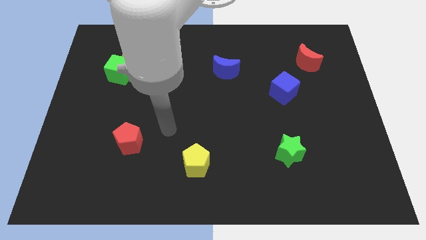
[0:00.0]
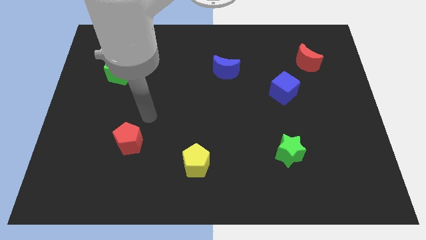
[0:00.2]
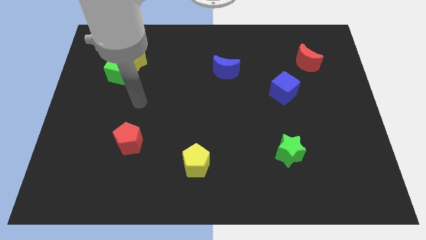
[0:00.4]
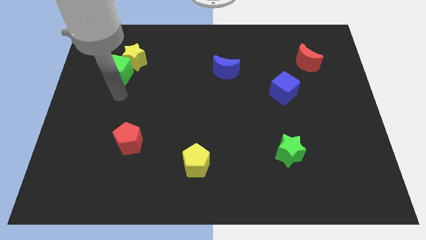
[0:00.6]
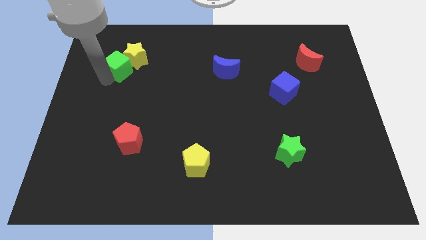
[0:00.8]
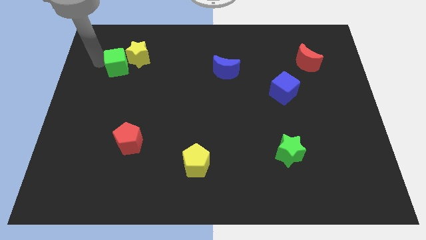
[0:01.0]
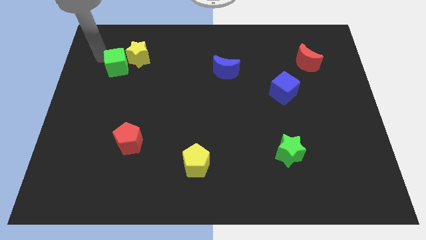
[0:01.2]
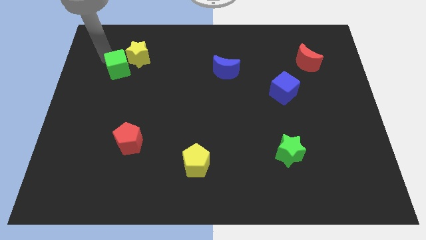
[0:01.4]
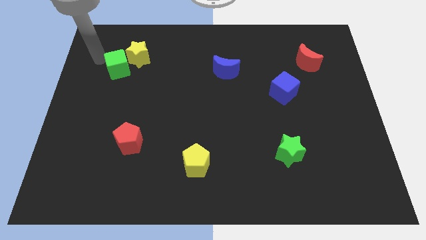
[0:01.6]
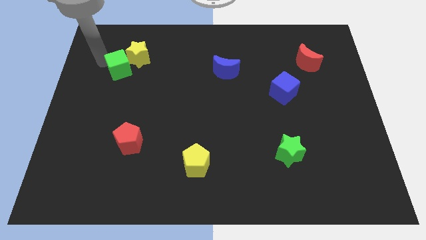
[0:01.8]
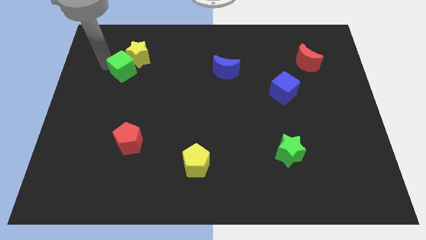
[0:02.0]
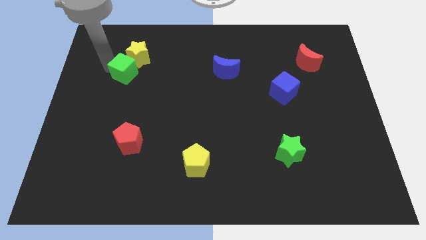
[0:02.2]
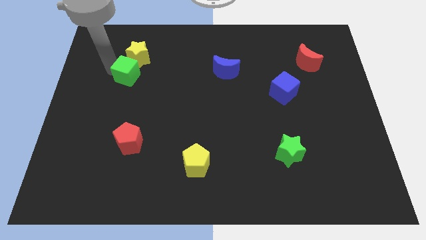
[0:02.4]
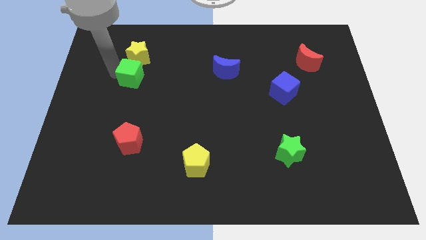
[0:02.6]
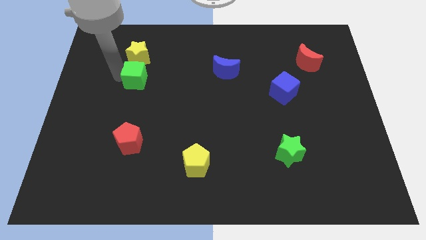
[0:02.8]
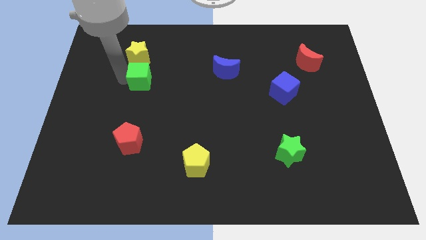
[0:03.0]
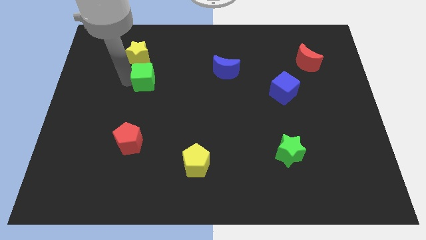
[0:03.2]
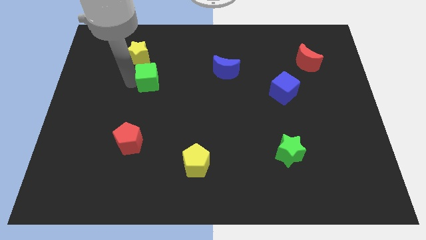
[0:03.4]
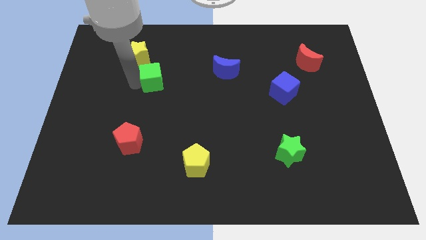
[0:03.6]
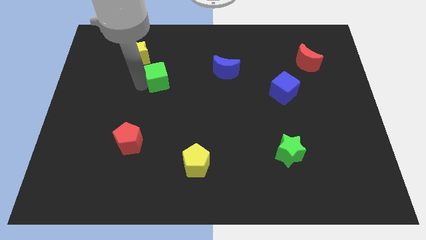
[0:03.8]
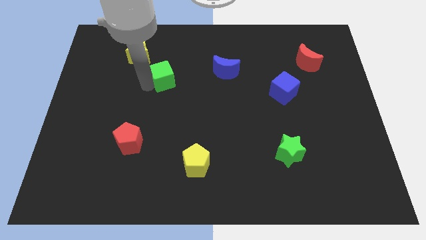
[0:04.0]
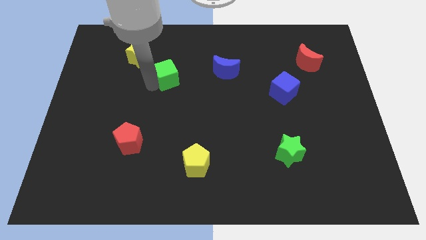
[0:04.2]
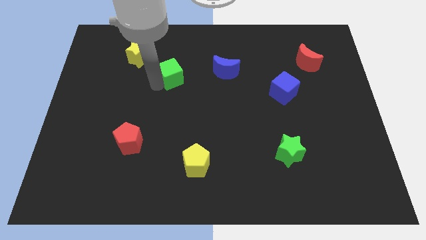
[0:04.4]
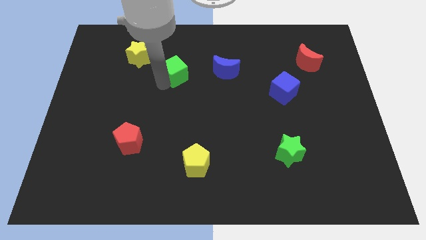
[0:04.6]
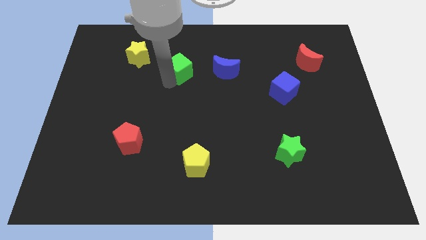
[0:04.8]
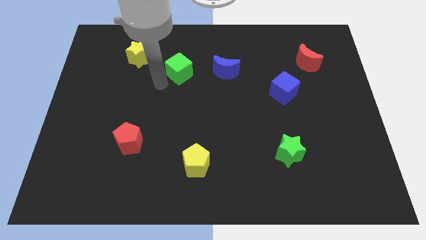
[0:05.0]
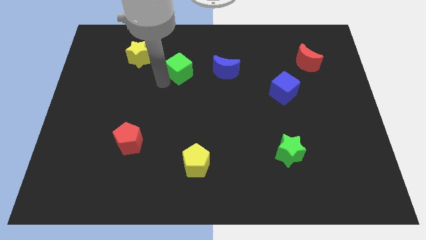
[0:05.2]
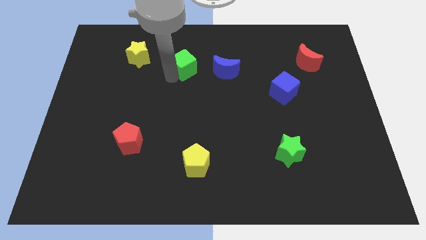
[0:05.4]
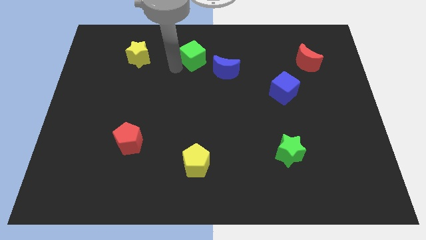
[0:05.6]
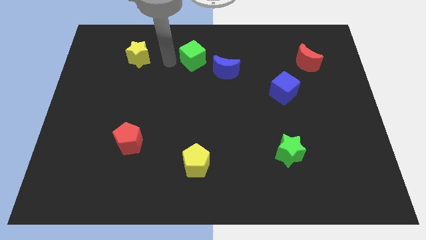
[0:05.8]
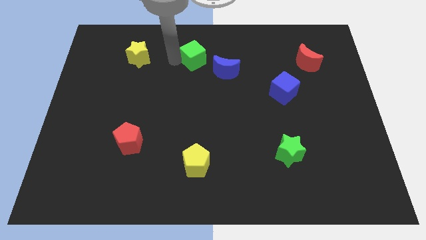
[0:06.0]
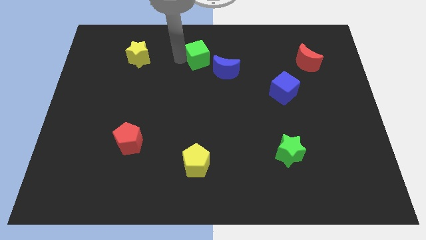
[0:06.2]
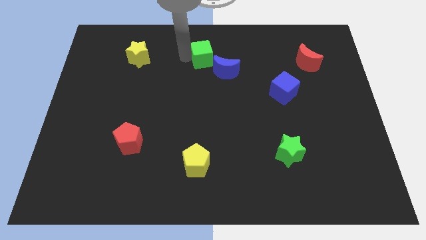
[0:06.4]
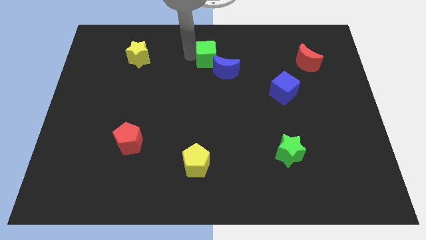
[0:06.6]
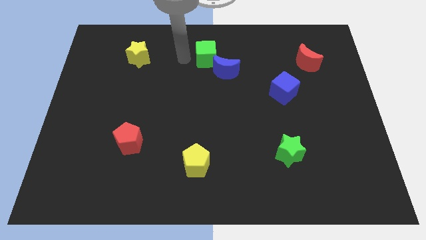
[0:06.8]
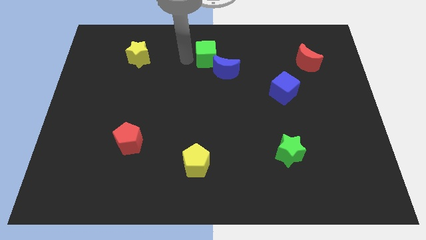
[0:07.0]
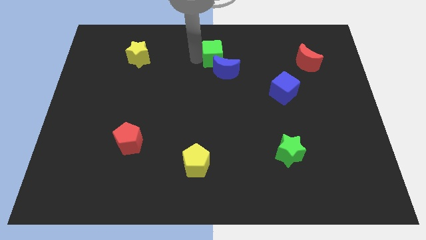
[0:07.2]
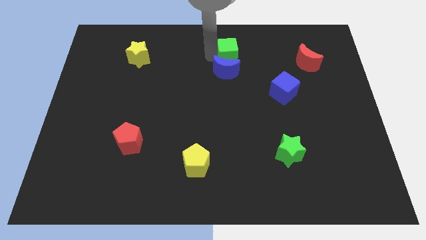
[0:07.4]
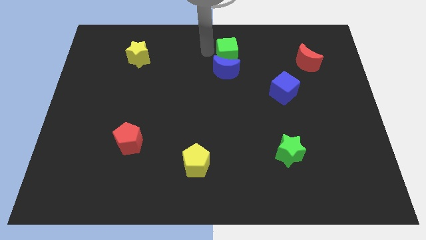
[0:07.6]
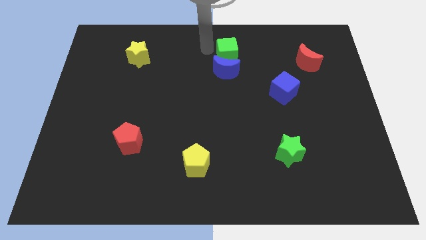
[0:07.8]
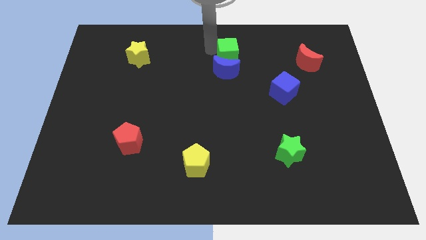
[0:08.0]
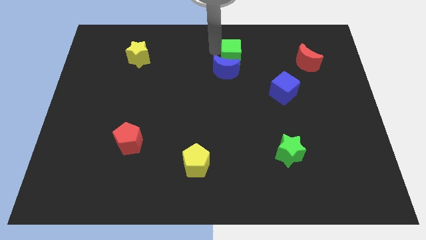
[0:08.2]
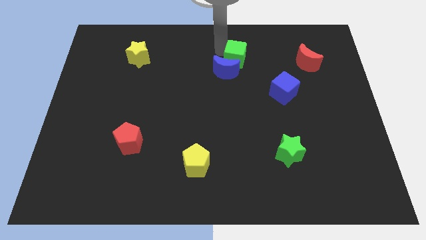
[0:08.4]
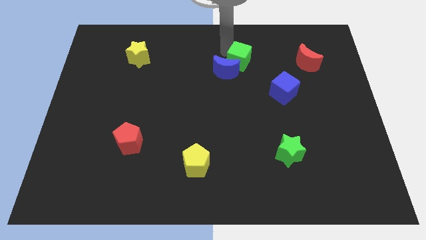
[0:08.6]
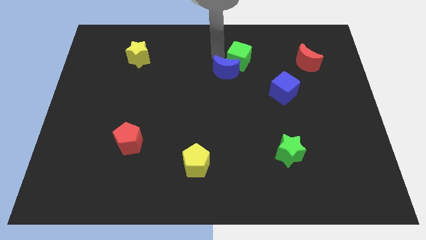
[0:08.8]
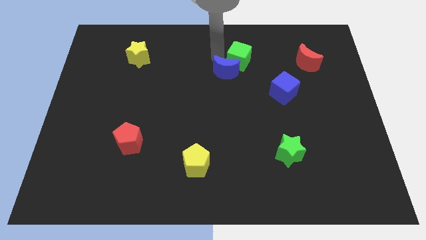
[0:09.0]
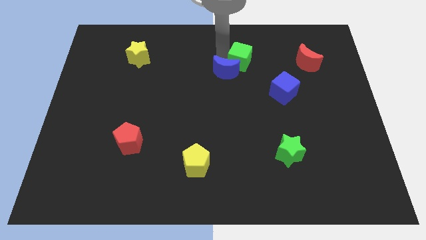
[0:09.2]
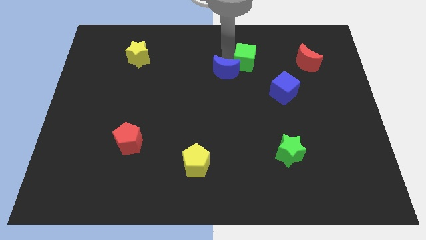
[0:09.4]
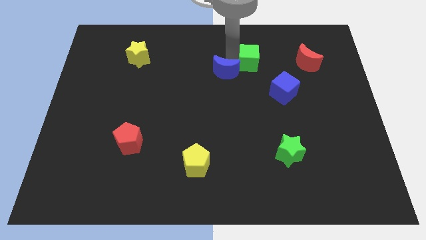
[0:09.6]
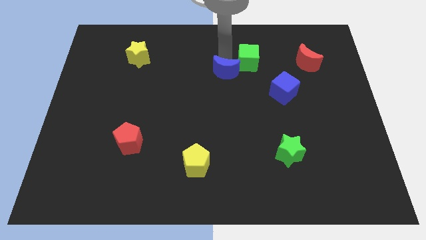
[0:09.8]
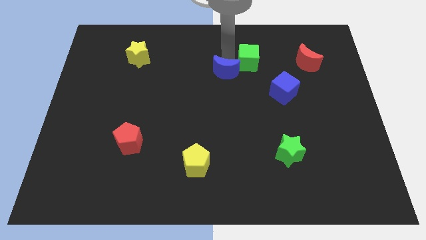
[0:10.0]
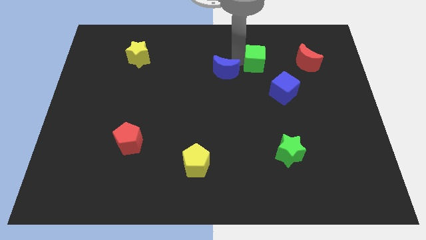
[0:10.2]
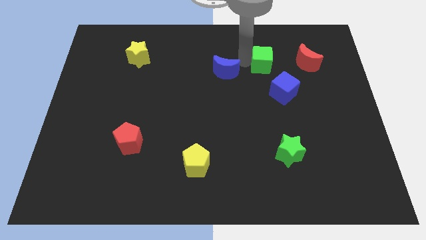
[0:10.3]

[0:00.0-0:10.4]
push the green cube above the blue cube
